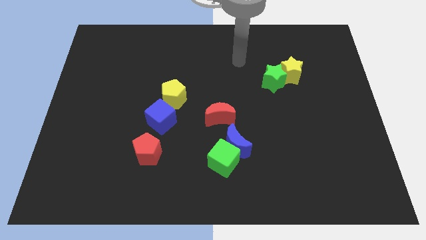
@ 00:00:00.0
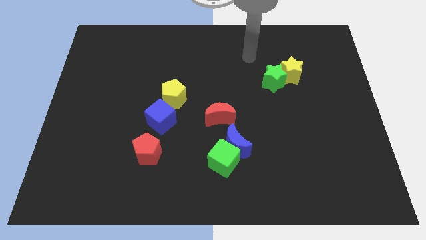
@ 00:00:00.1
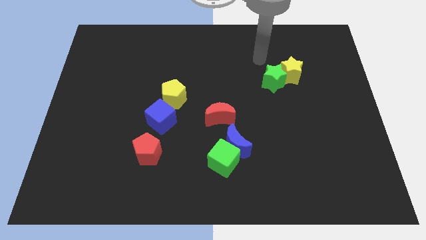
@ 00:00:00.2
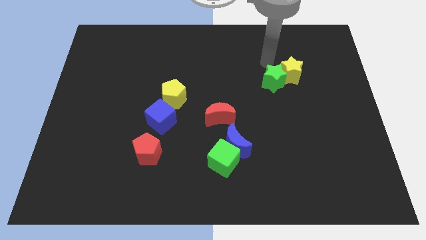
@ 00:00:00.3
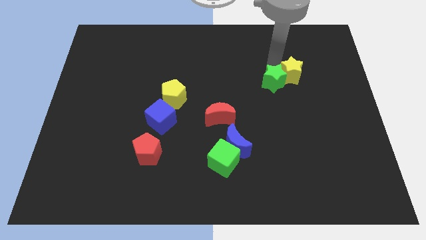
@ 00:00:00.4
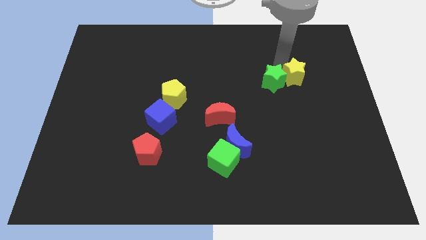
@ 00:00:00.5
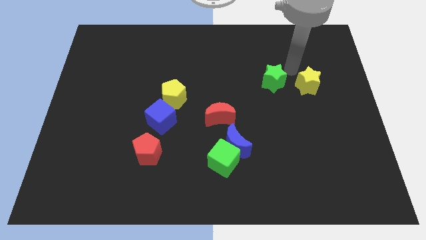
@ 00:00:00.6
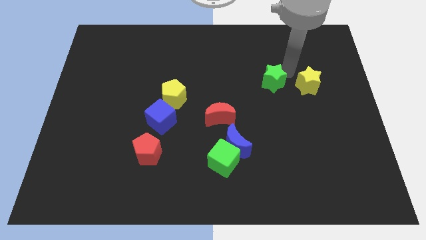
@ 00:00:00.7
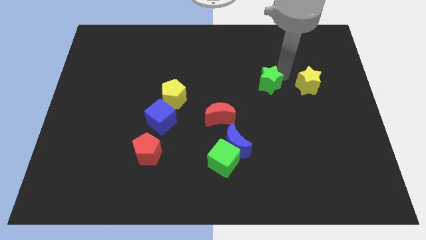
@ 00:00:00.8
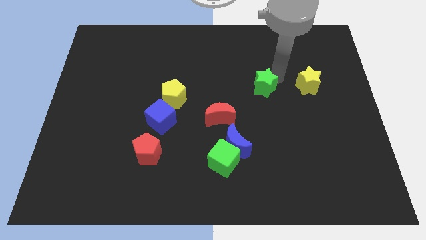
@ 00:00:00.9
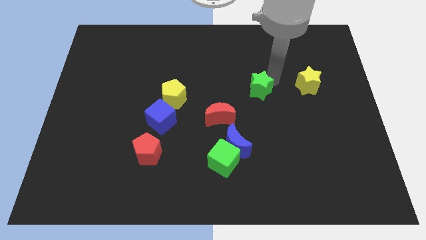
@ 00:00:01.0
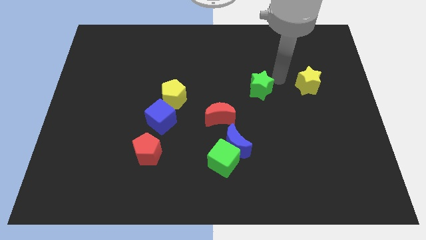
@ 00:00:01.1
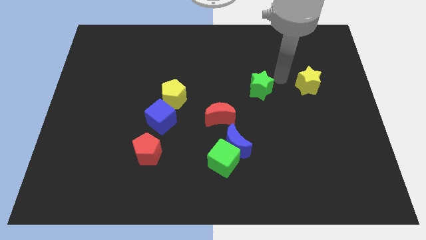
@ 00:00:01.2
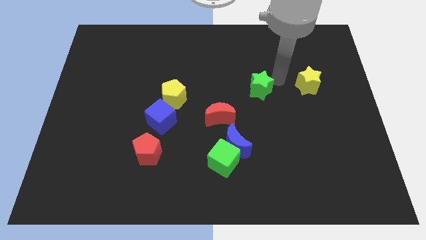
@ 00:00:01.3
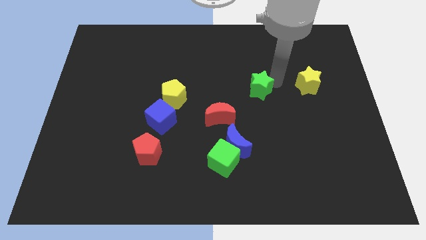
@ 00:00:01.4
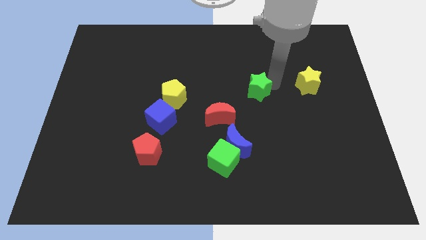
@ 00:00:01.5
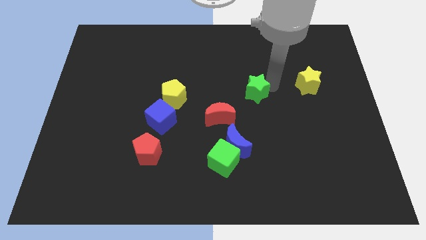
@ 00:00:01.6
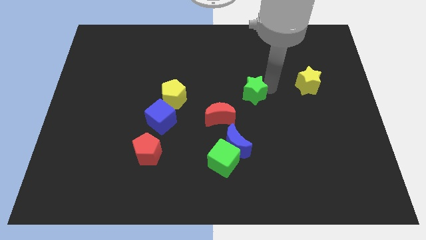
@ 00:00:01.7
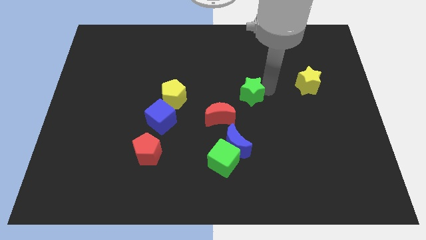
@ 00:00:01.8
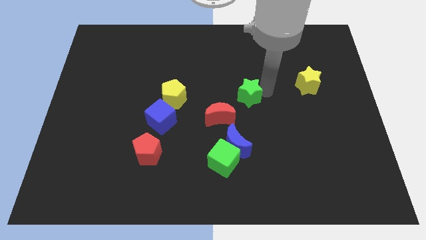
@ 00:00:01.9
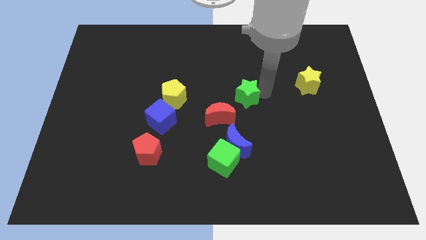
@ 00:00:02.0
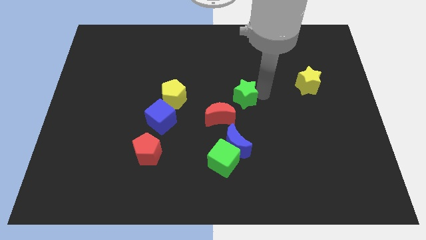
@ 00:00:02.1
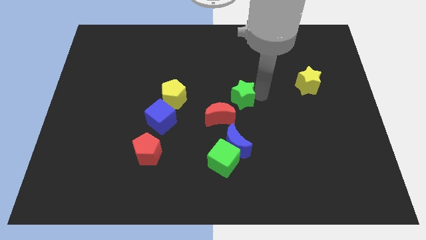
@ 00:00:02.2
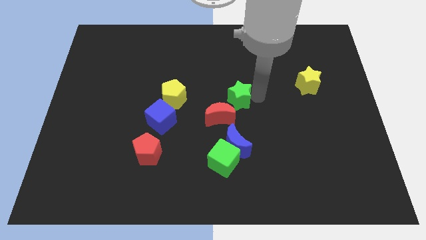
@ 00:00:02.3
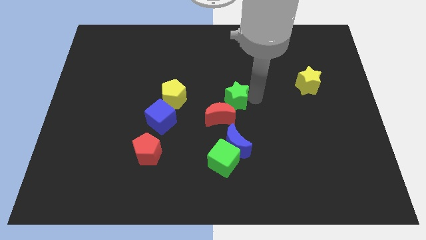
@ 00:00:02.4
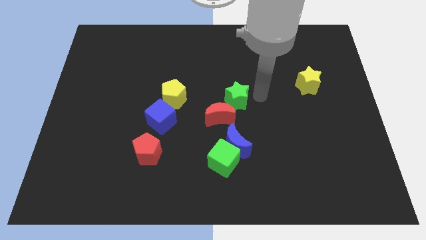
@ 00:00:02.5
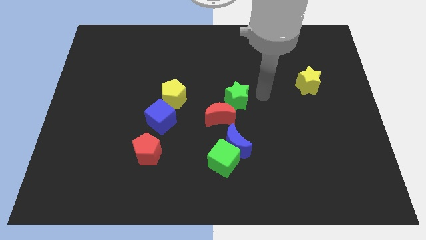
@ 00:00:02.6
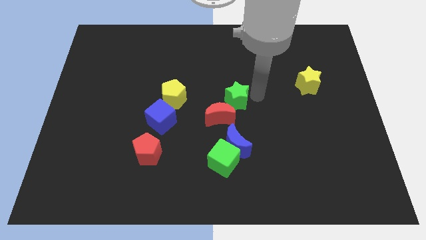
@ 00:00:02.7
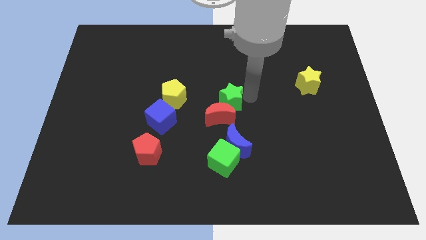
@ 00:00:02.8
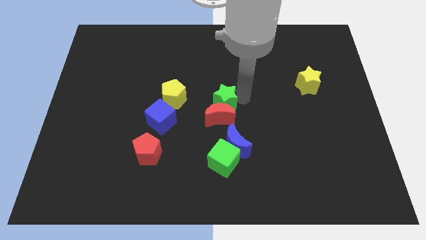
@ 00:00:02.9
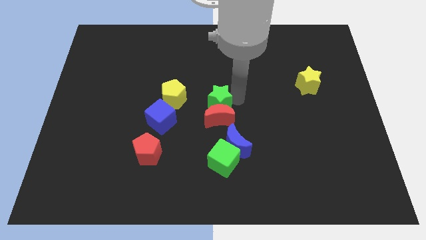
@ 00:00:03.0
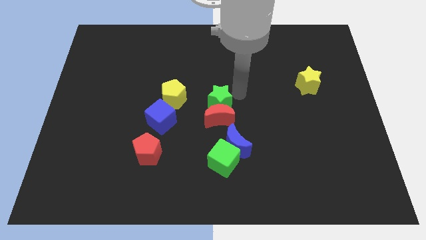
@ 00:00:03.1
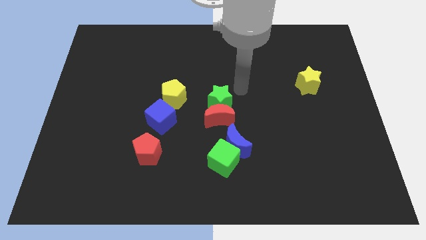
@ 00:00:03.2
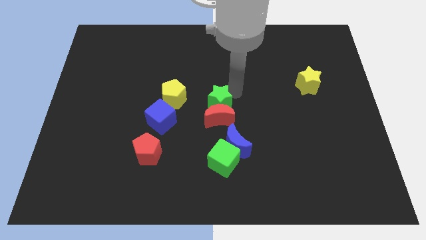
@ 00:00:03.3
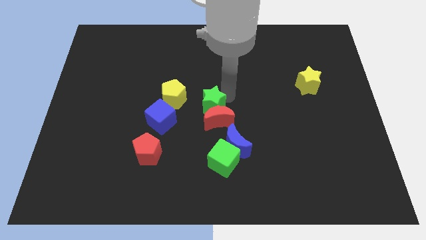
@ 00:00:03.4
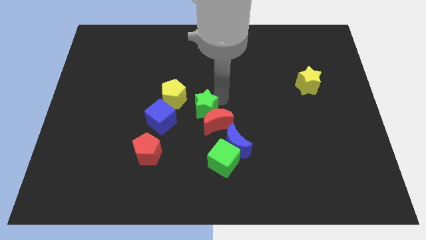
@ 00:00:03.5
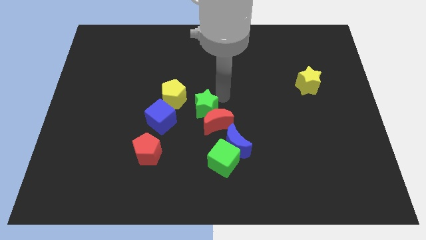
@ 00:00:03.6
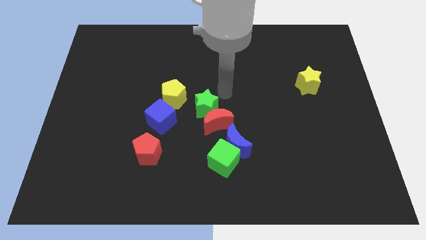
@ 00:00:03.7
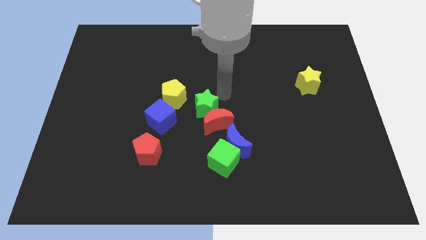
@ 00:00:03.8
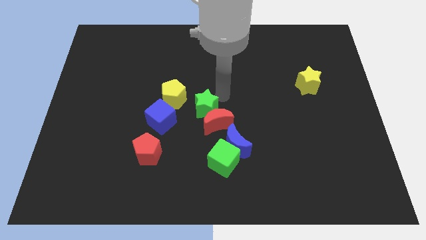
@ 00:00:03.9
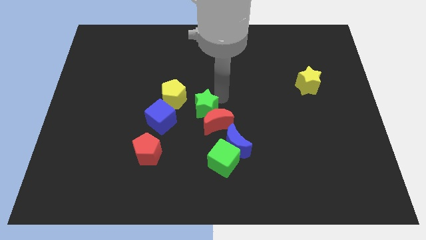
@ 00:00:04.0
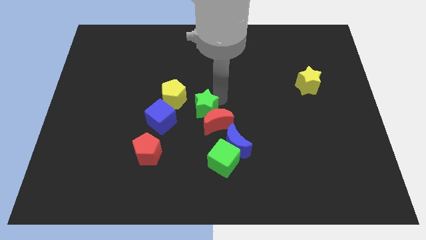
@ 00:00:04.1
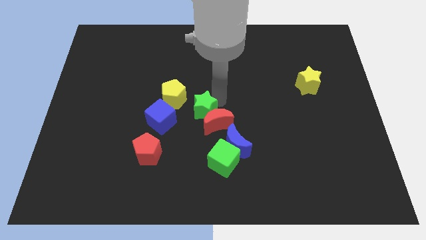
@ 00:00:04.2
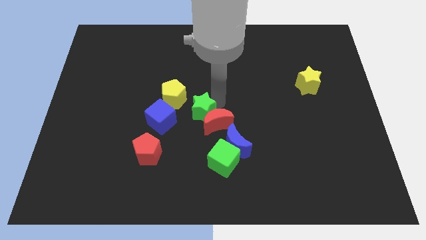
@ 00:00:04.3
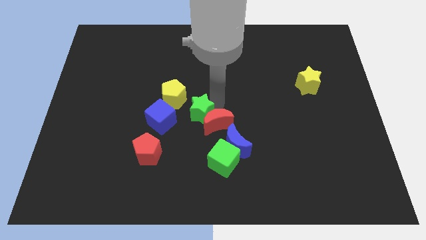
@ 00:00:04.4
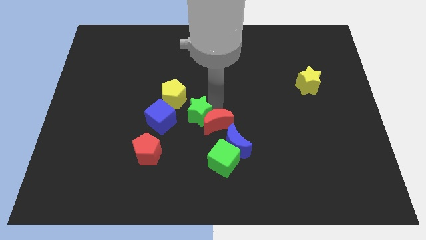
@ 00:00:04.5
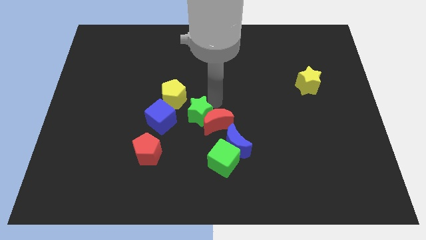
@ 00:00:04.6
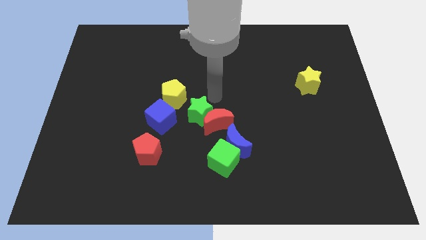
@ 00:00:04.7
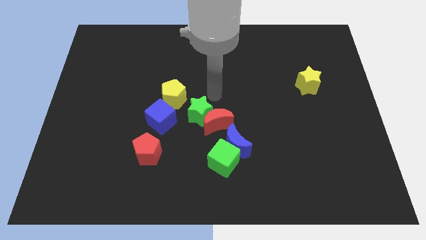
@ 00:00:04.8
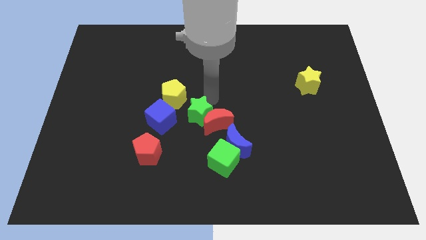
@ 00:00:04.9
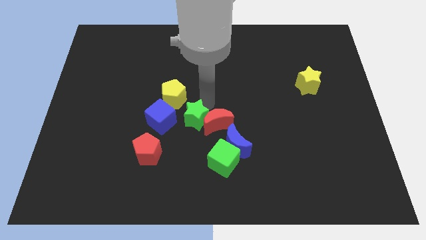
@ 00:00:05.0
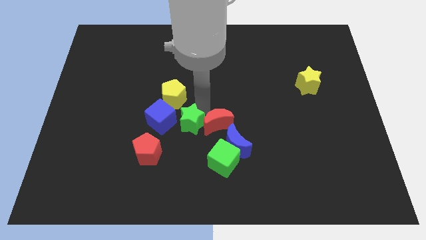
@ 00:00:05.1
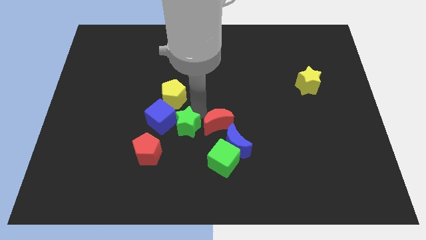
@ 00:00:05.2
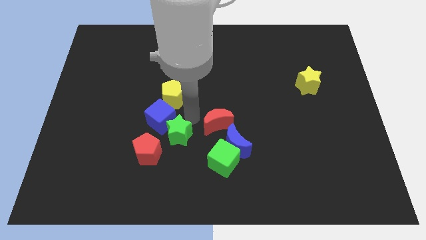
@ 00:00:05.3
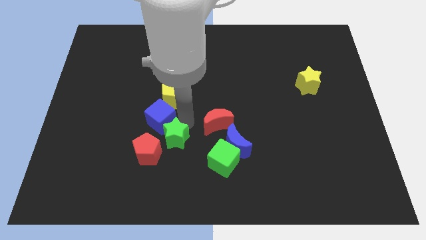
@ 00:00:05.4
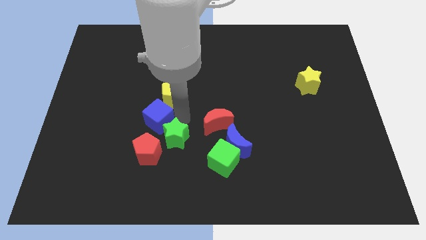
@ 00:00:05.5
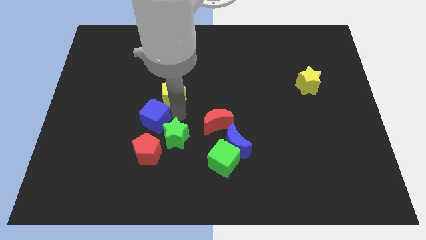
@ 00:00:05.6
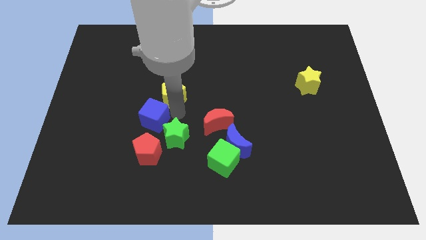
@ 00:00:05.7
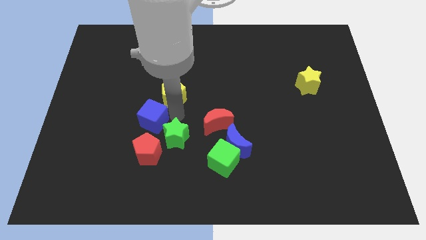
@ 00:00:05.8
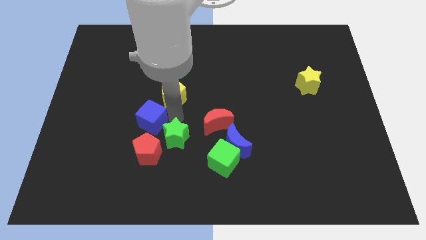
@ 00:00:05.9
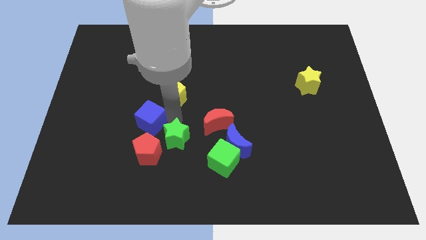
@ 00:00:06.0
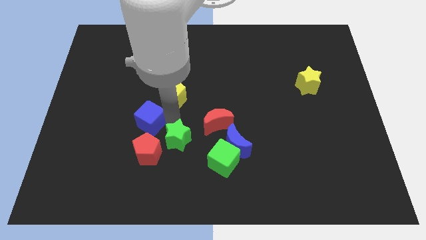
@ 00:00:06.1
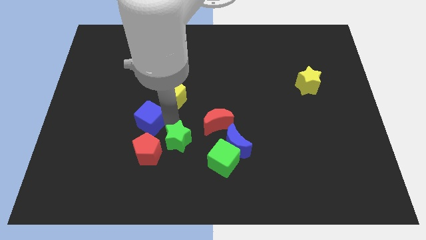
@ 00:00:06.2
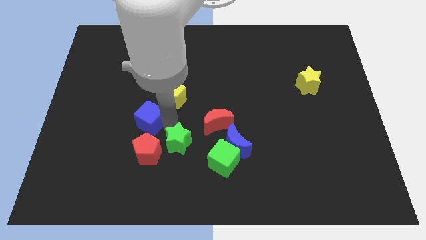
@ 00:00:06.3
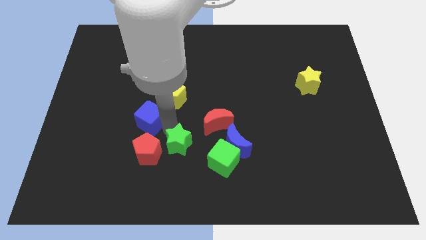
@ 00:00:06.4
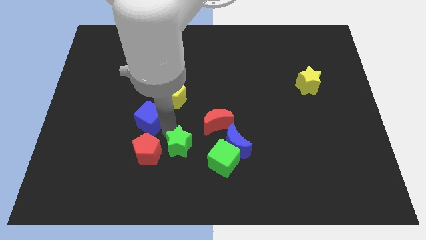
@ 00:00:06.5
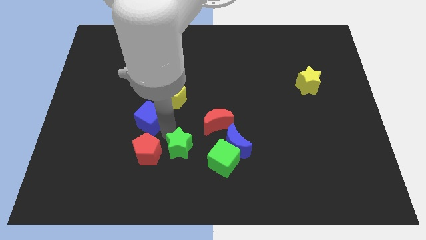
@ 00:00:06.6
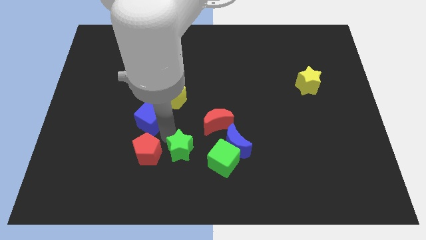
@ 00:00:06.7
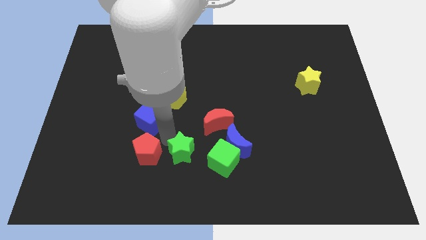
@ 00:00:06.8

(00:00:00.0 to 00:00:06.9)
slide the green star to the bottom right of the red pentagon

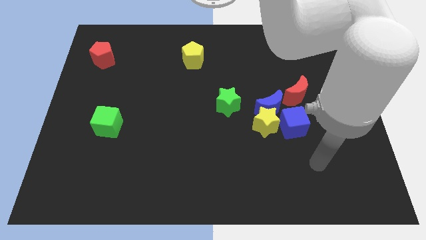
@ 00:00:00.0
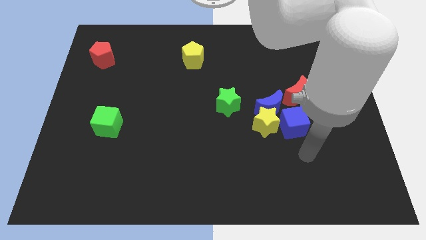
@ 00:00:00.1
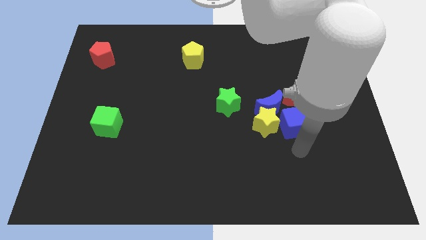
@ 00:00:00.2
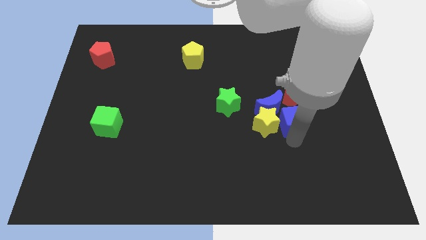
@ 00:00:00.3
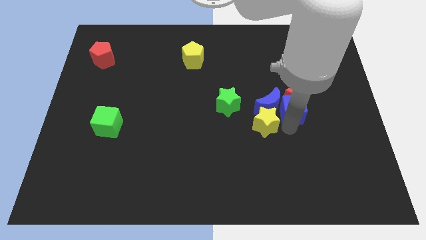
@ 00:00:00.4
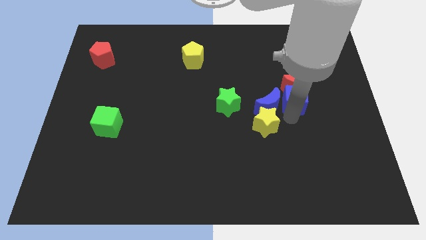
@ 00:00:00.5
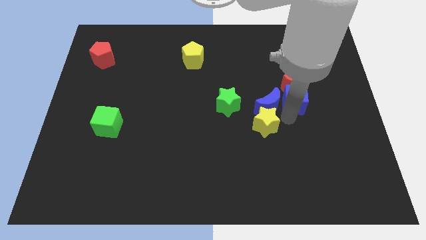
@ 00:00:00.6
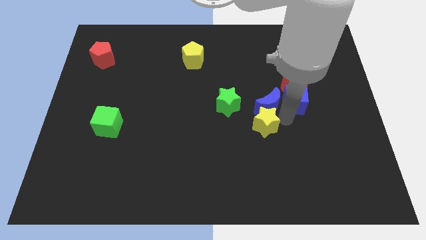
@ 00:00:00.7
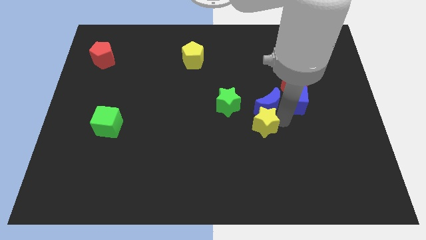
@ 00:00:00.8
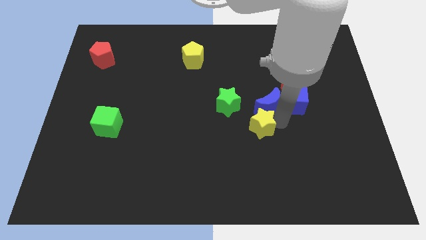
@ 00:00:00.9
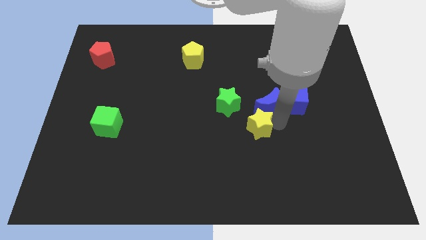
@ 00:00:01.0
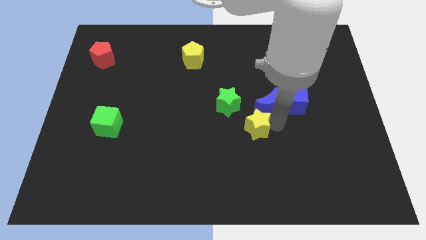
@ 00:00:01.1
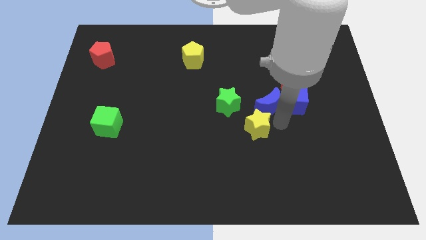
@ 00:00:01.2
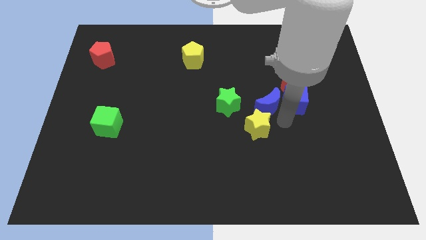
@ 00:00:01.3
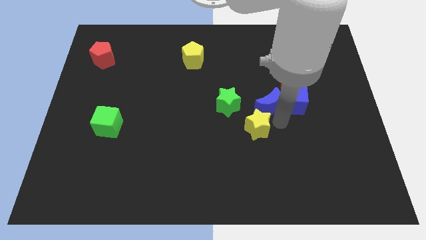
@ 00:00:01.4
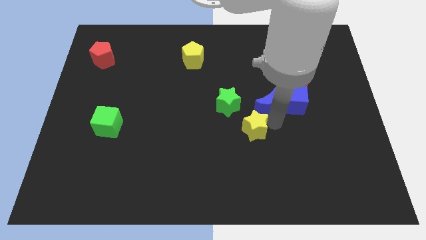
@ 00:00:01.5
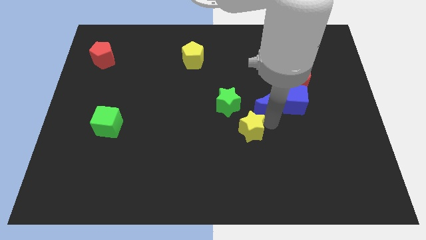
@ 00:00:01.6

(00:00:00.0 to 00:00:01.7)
move the yellow star to the bottom of the green star
